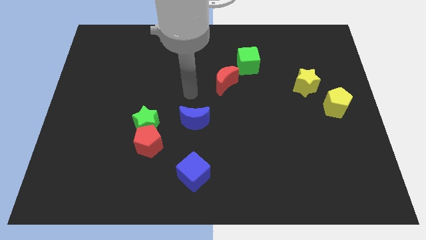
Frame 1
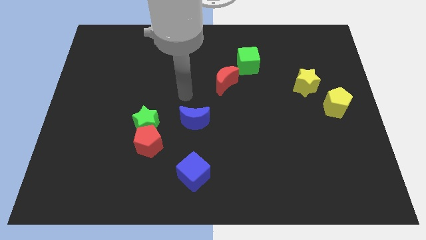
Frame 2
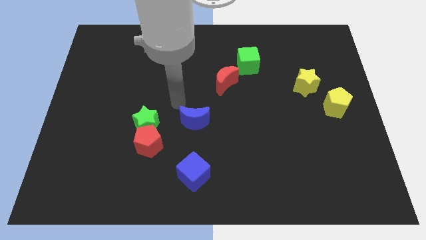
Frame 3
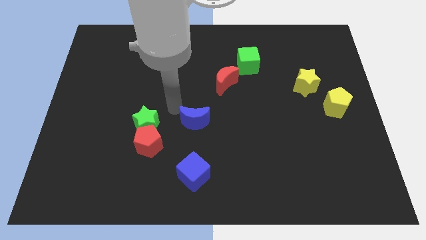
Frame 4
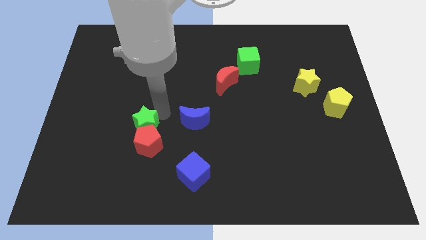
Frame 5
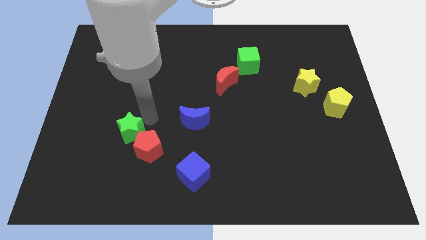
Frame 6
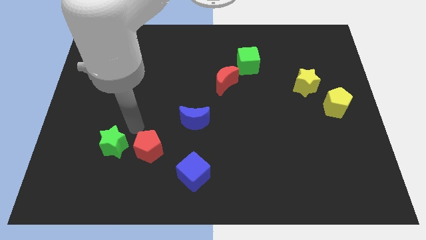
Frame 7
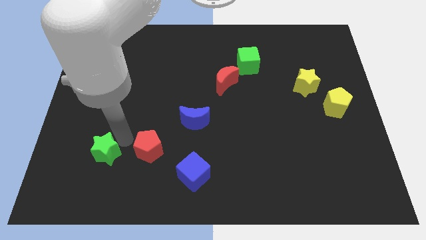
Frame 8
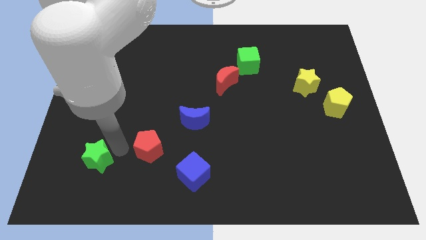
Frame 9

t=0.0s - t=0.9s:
pull the red pentagon apart from the green star

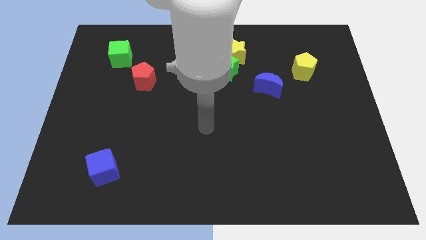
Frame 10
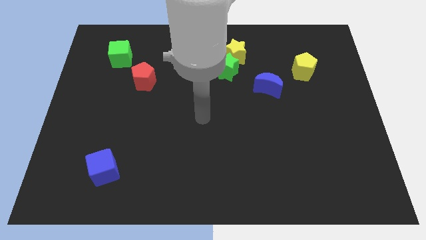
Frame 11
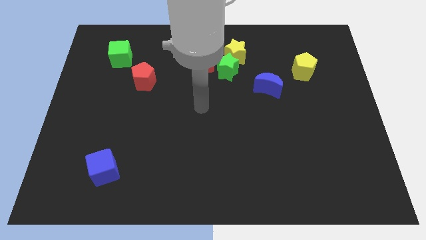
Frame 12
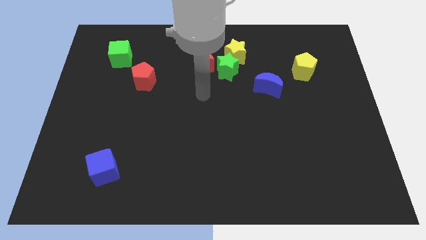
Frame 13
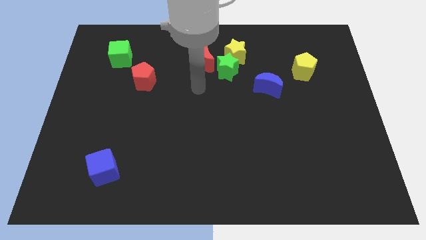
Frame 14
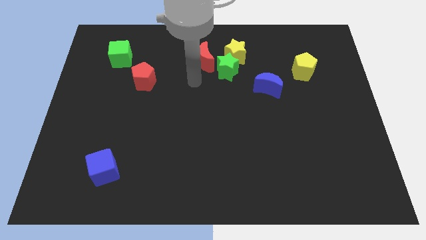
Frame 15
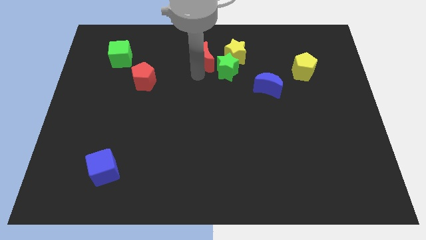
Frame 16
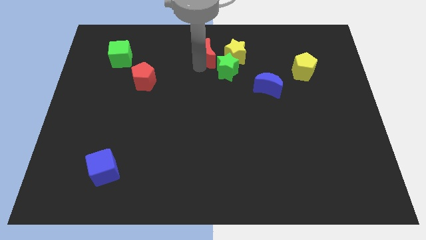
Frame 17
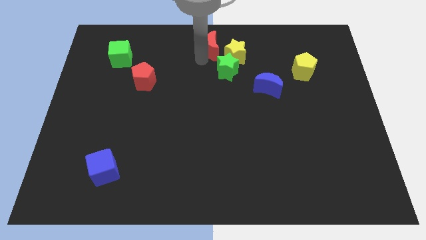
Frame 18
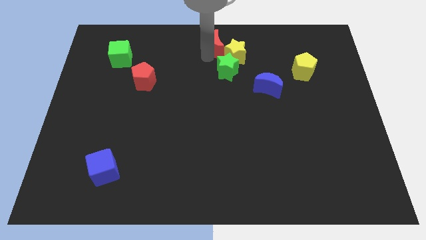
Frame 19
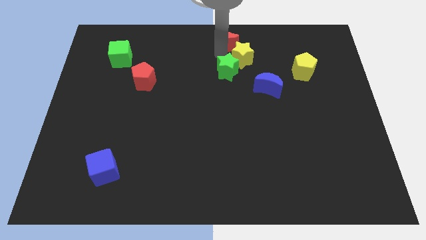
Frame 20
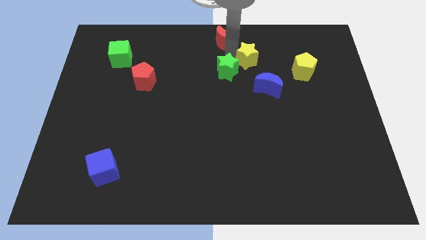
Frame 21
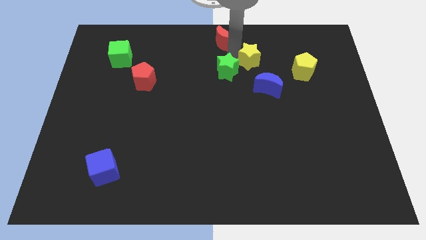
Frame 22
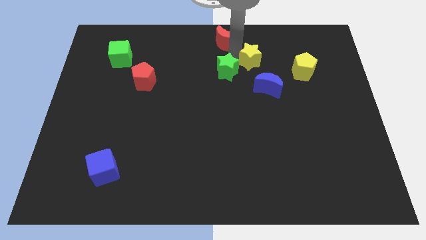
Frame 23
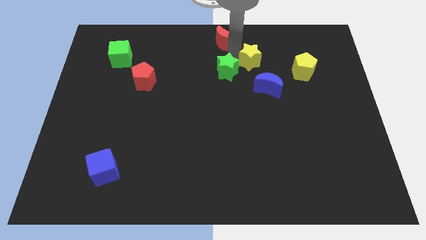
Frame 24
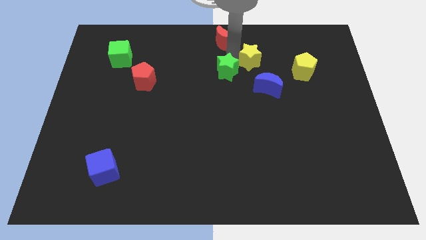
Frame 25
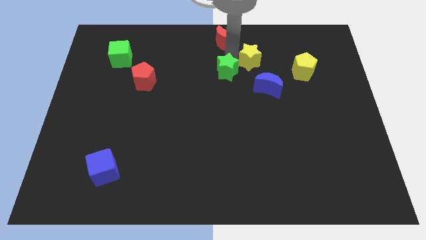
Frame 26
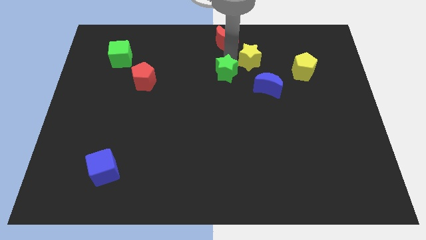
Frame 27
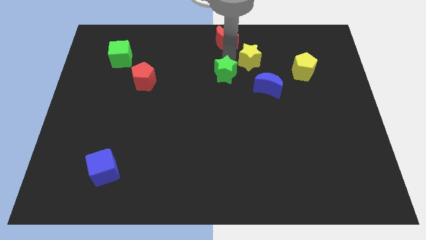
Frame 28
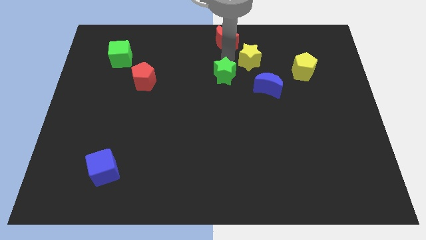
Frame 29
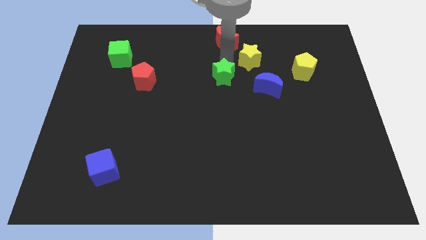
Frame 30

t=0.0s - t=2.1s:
move the green star away from the yellow star and red moon

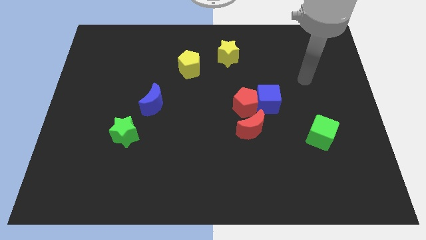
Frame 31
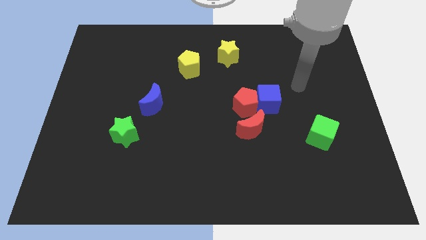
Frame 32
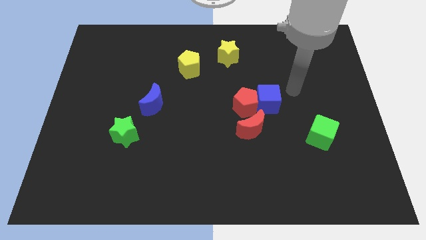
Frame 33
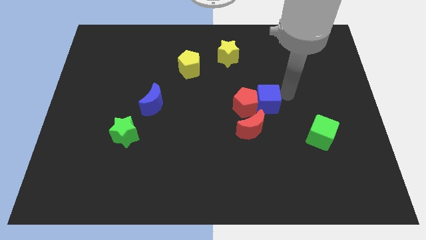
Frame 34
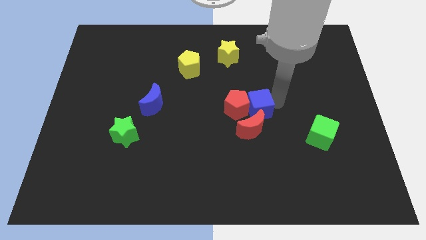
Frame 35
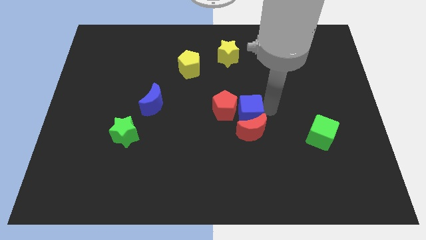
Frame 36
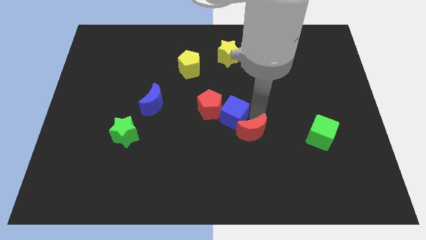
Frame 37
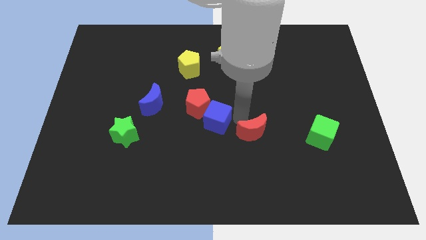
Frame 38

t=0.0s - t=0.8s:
move the red pentagon away from the blue cube and red moon

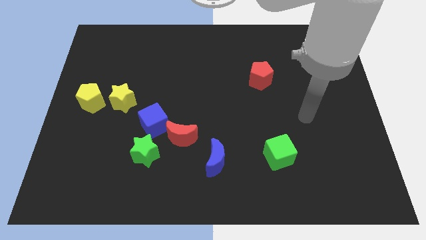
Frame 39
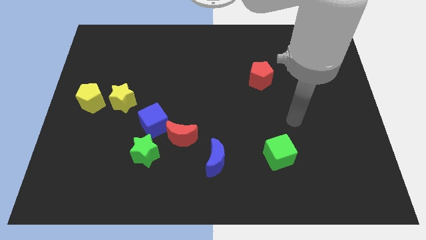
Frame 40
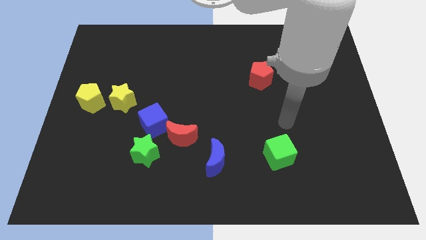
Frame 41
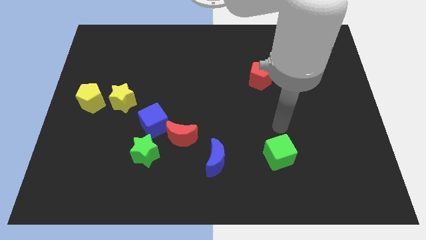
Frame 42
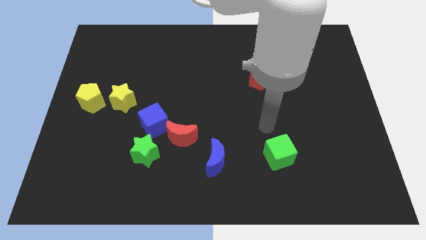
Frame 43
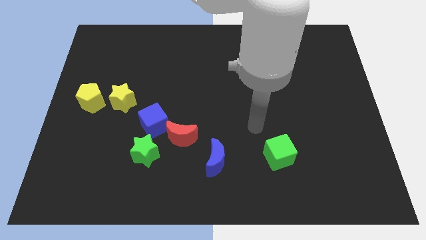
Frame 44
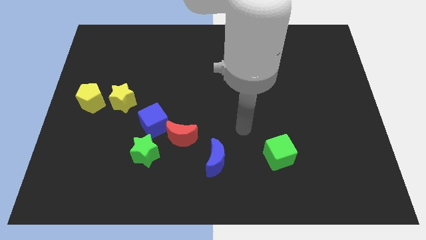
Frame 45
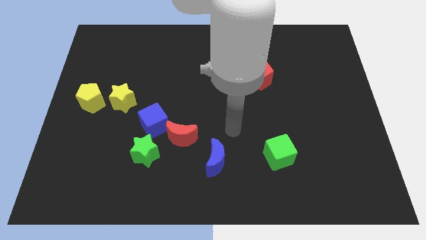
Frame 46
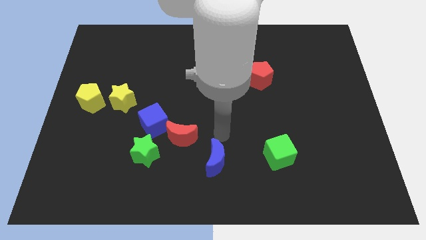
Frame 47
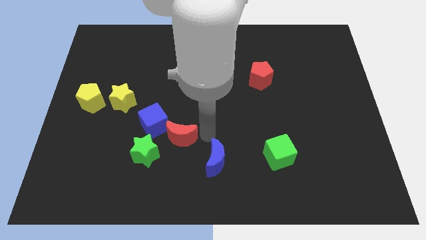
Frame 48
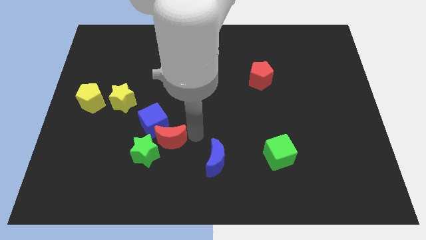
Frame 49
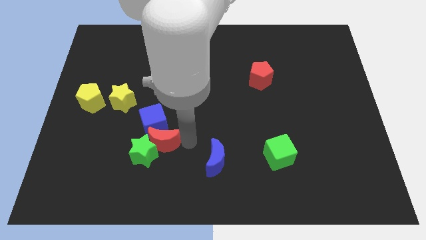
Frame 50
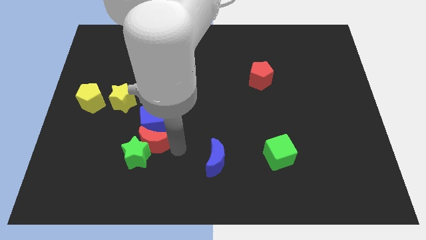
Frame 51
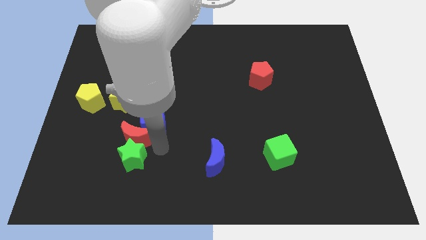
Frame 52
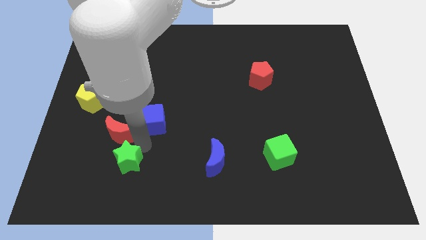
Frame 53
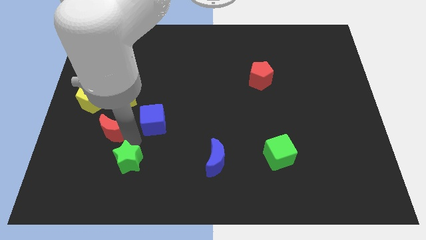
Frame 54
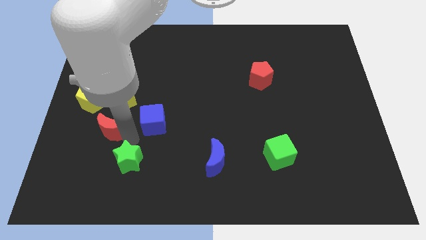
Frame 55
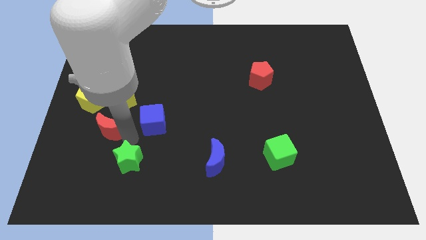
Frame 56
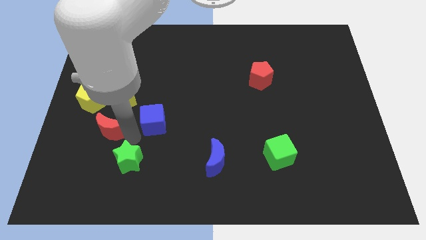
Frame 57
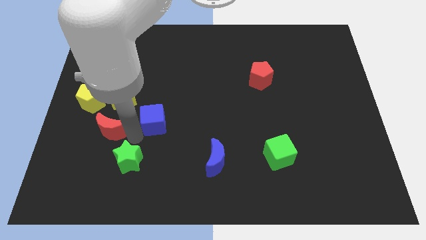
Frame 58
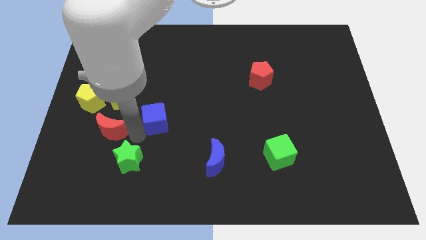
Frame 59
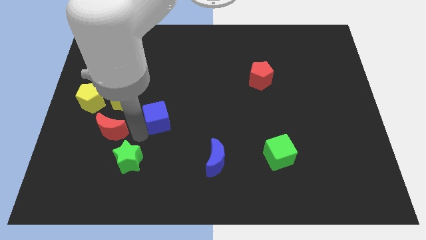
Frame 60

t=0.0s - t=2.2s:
pull the blue cube apart from the red moon and green star

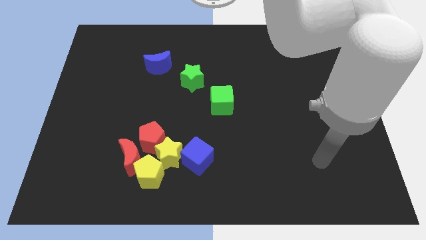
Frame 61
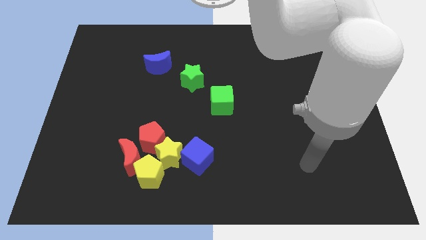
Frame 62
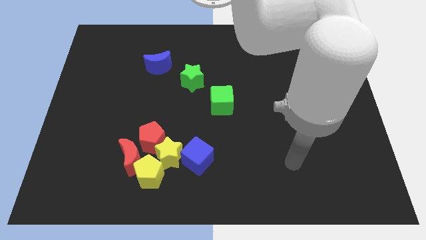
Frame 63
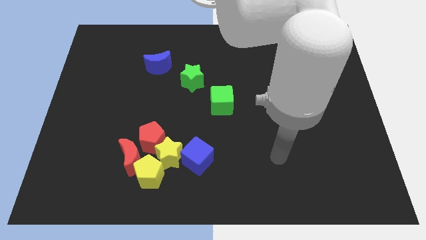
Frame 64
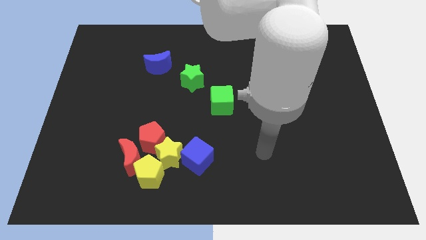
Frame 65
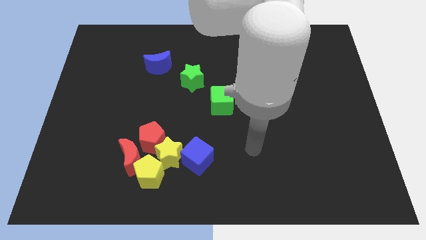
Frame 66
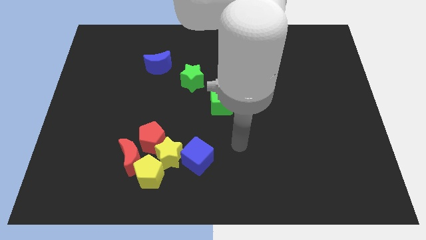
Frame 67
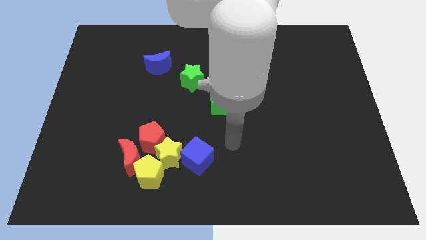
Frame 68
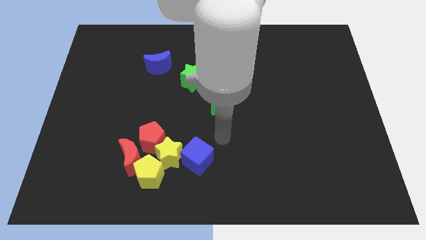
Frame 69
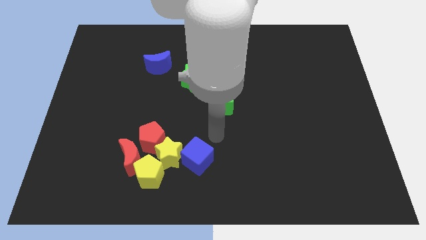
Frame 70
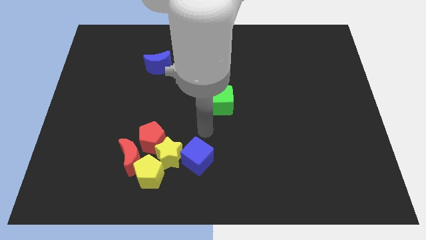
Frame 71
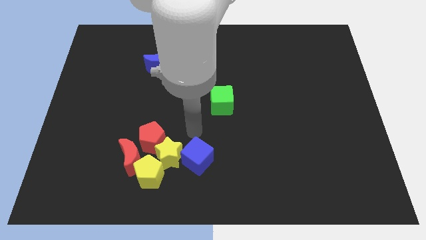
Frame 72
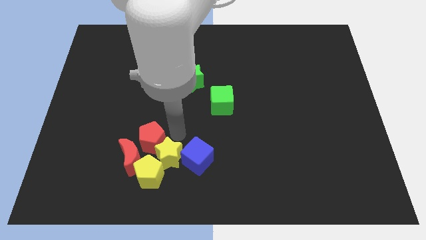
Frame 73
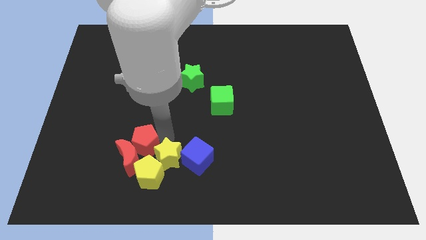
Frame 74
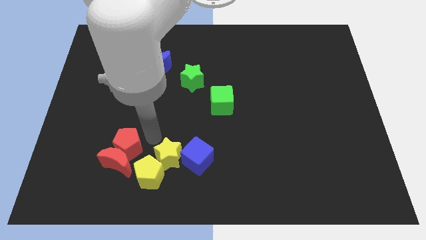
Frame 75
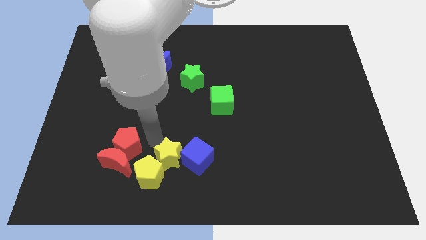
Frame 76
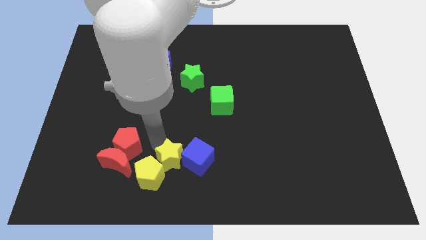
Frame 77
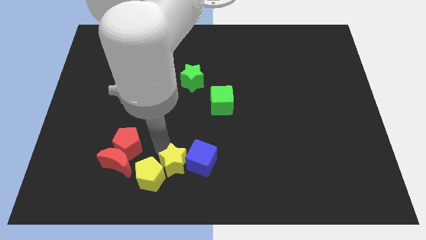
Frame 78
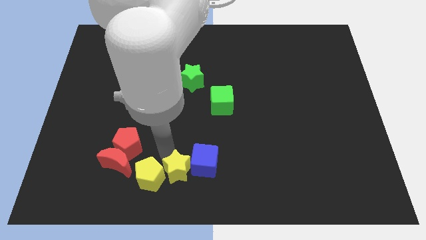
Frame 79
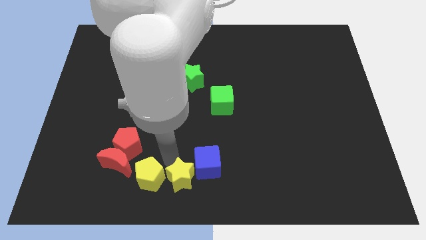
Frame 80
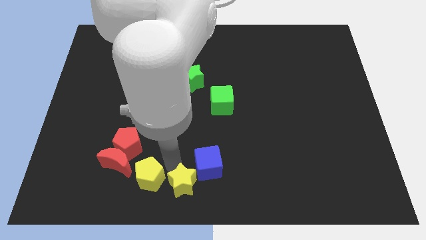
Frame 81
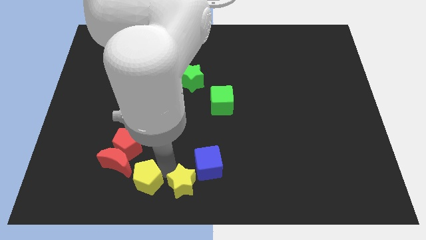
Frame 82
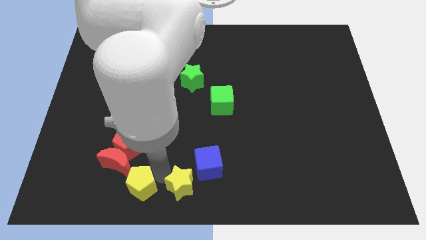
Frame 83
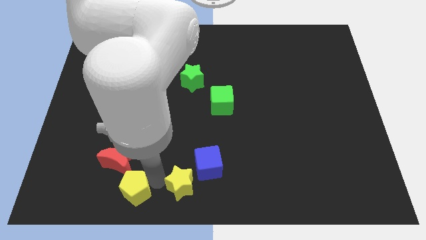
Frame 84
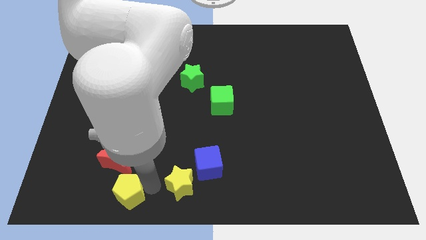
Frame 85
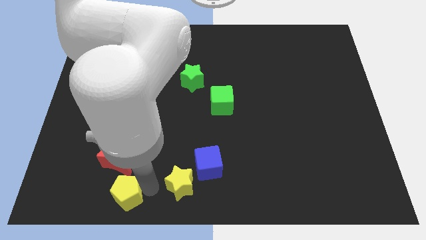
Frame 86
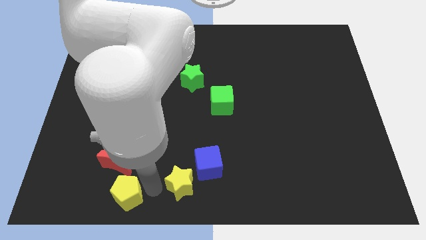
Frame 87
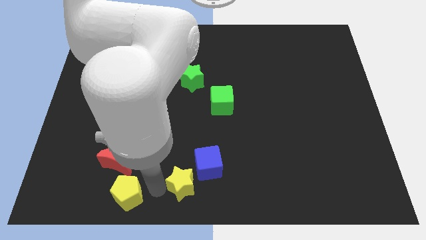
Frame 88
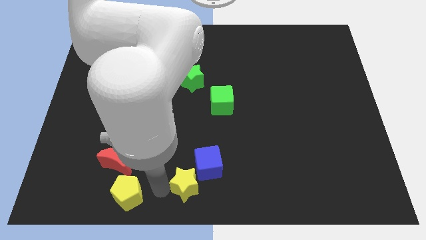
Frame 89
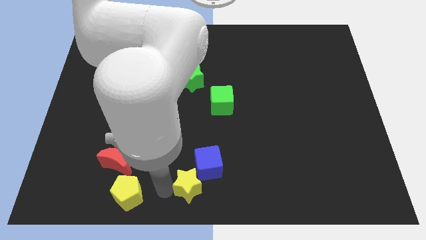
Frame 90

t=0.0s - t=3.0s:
separate the yellow star from the group
